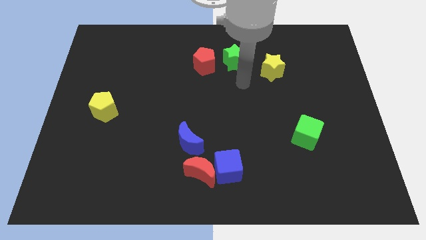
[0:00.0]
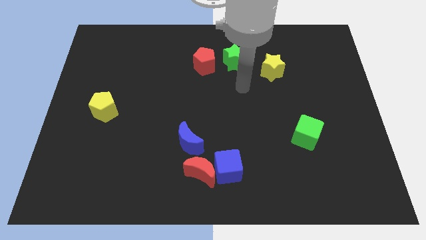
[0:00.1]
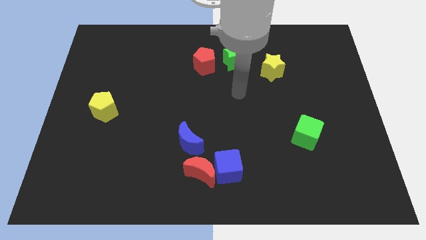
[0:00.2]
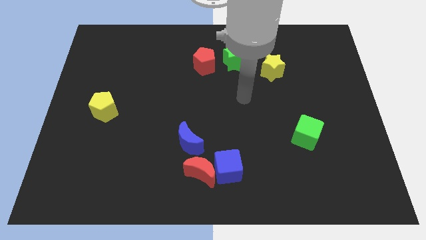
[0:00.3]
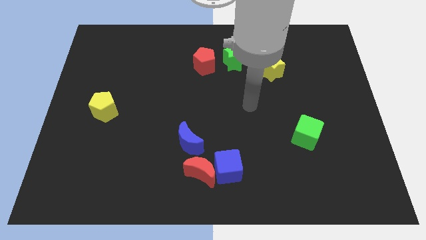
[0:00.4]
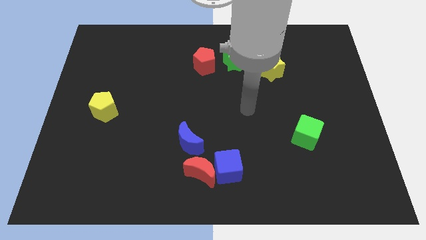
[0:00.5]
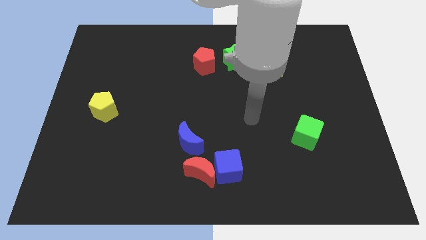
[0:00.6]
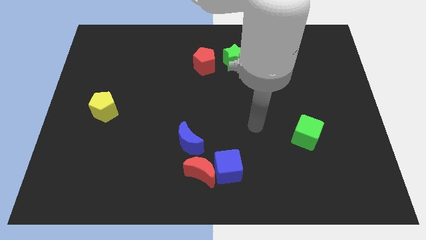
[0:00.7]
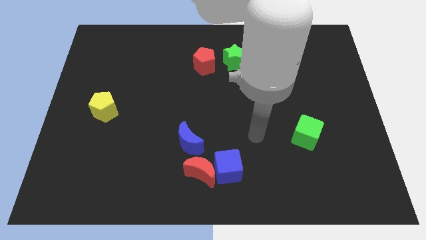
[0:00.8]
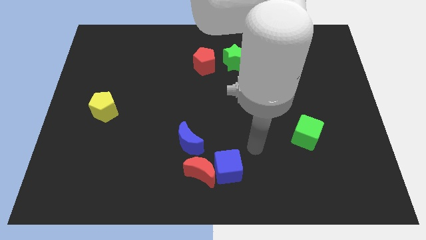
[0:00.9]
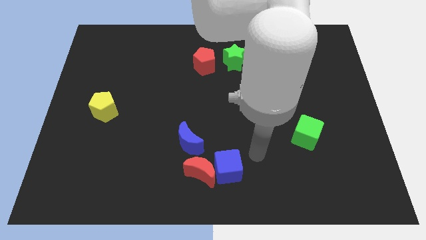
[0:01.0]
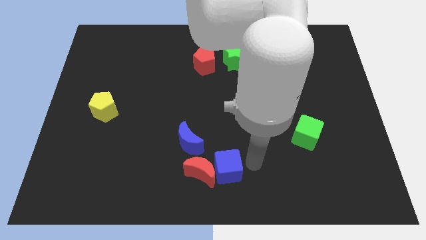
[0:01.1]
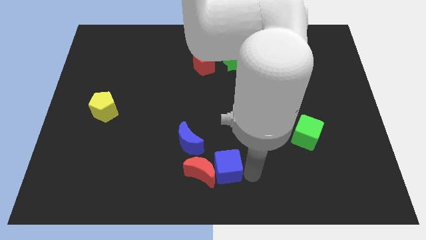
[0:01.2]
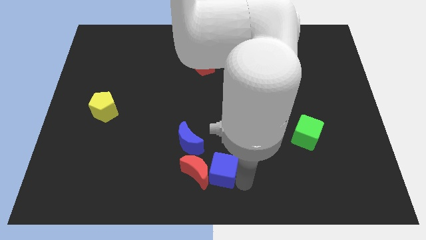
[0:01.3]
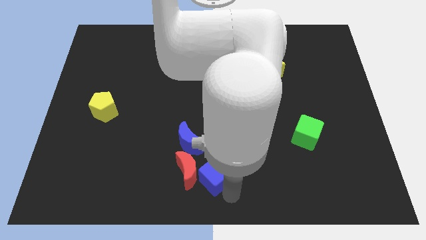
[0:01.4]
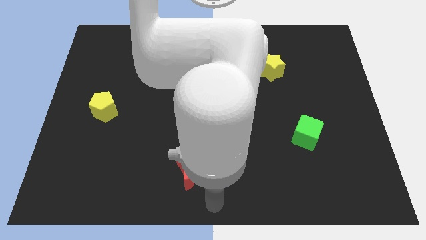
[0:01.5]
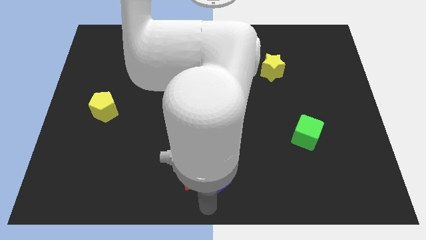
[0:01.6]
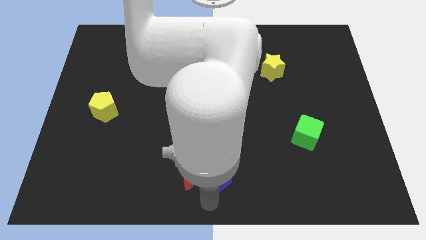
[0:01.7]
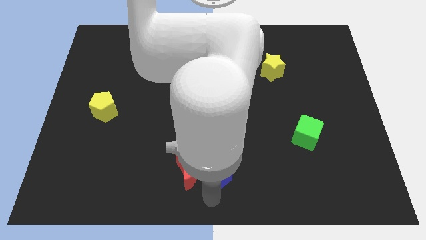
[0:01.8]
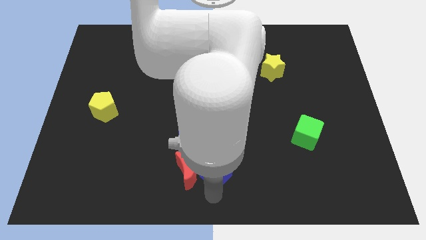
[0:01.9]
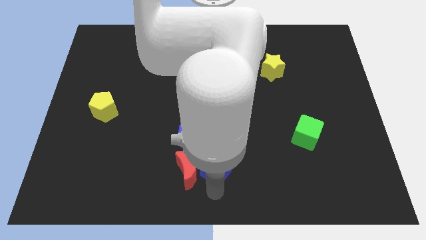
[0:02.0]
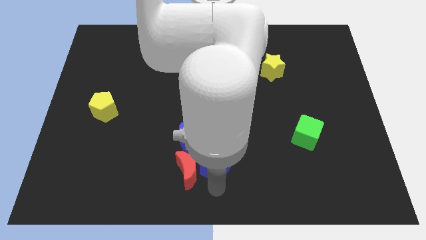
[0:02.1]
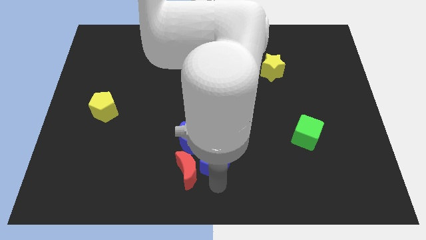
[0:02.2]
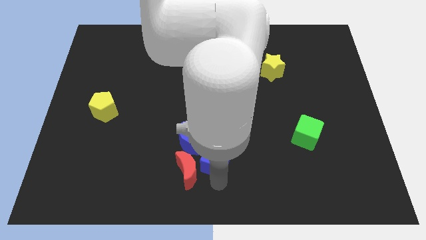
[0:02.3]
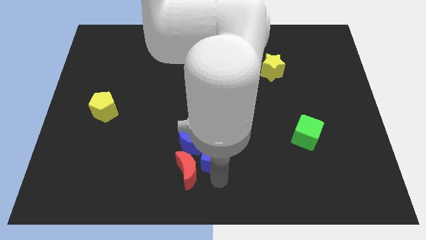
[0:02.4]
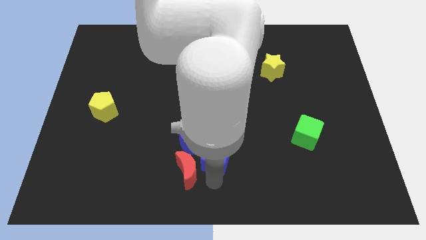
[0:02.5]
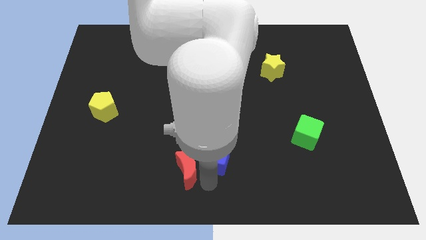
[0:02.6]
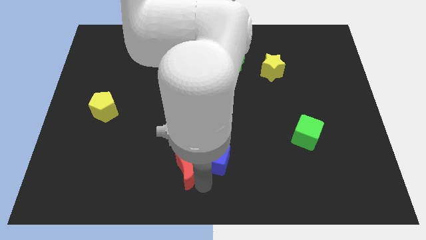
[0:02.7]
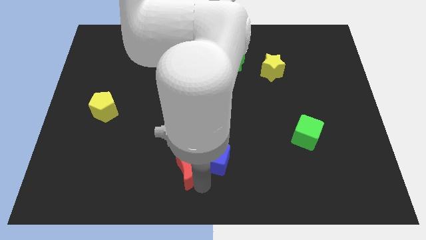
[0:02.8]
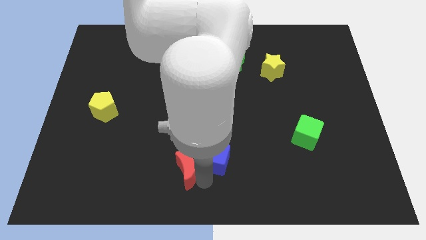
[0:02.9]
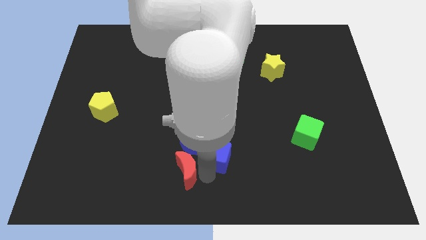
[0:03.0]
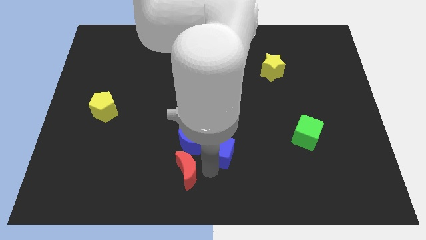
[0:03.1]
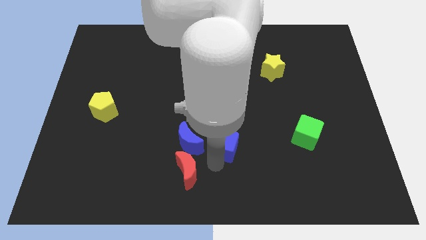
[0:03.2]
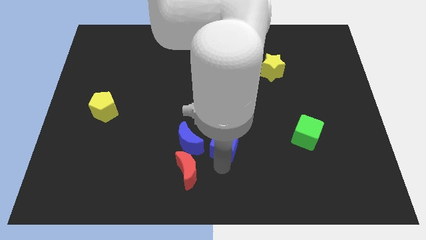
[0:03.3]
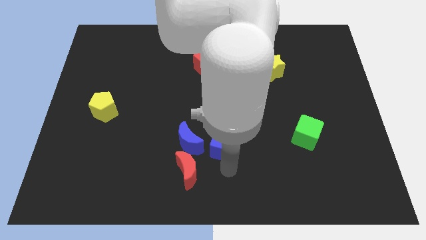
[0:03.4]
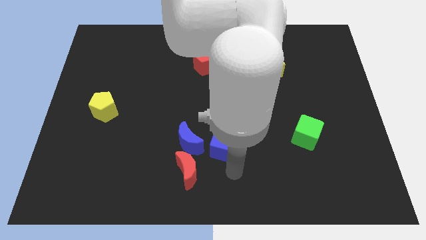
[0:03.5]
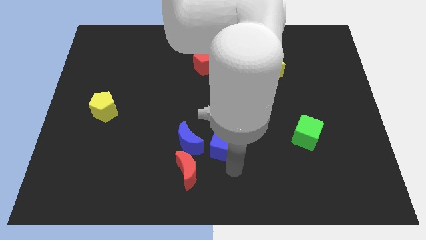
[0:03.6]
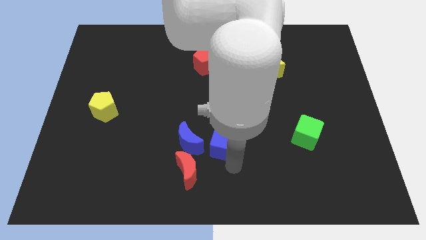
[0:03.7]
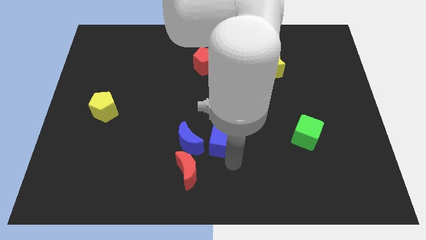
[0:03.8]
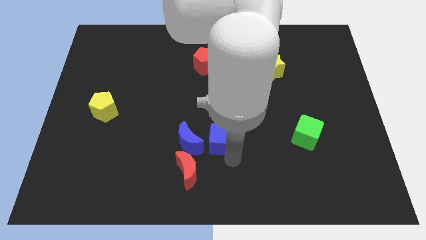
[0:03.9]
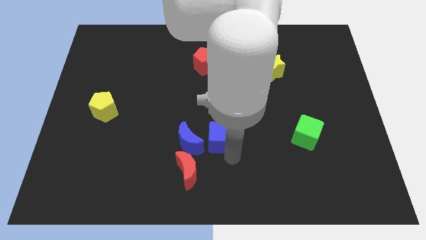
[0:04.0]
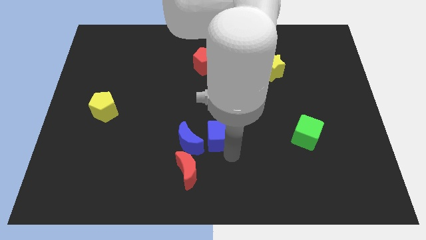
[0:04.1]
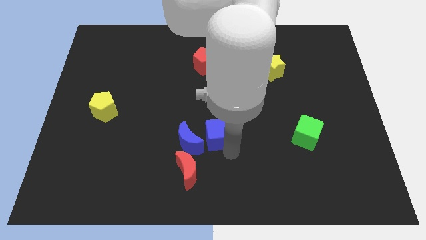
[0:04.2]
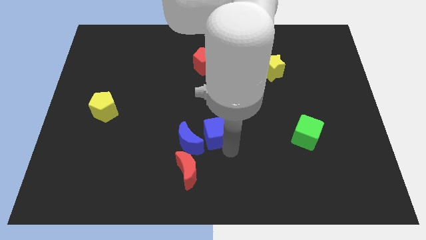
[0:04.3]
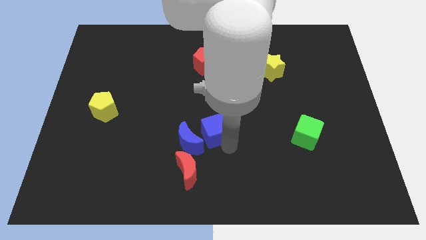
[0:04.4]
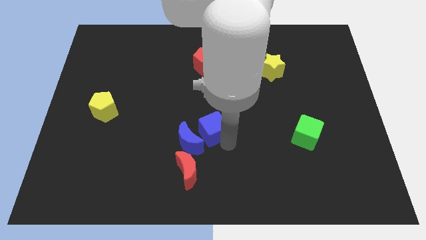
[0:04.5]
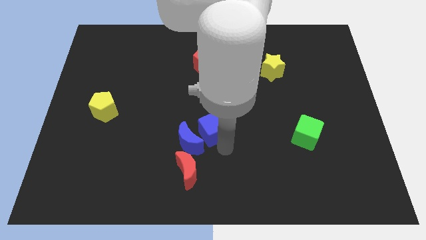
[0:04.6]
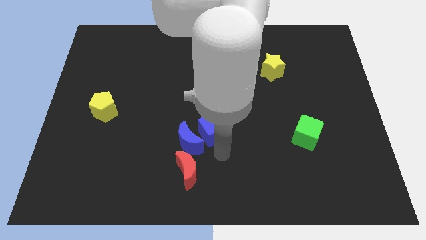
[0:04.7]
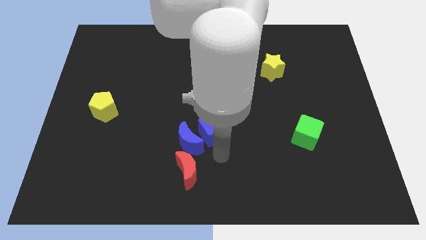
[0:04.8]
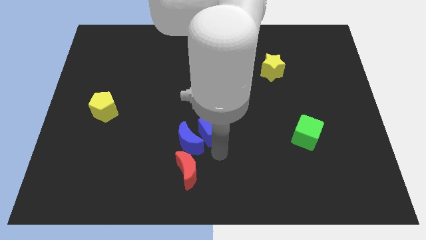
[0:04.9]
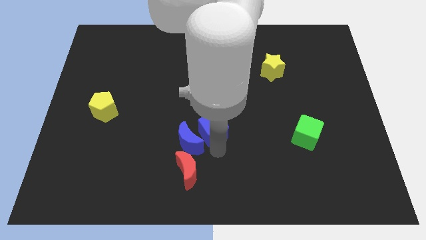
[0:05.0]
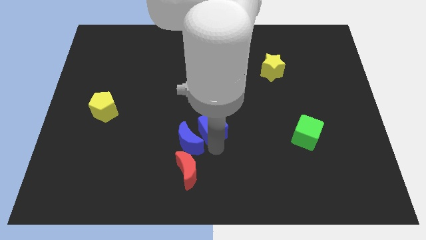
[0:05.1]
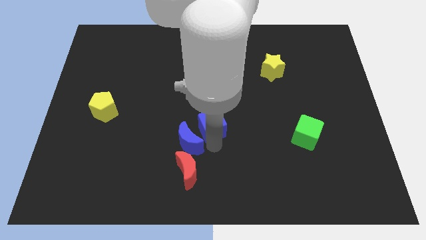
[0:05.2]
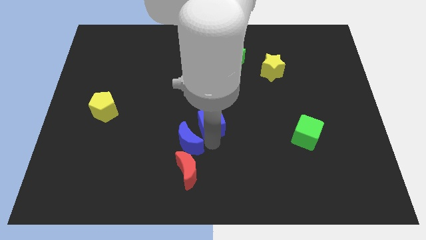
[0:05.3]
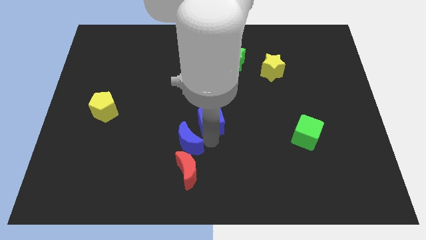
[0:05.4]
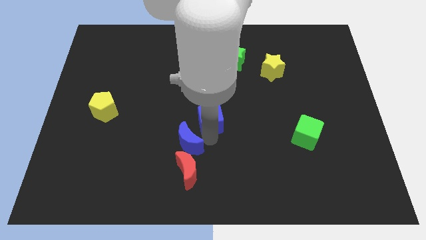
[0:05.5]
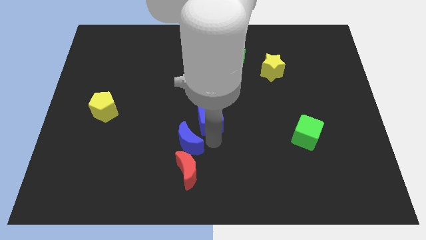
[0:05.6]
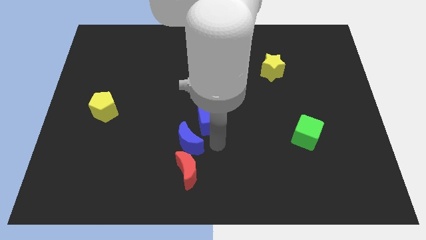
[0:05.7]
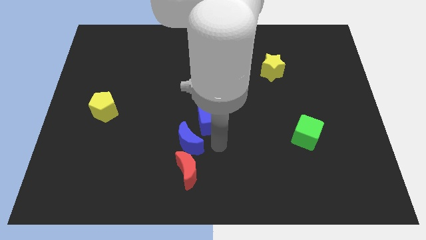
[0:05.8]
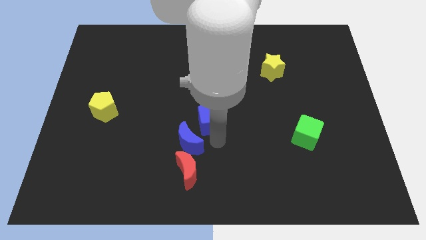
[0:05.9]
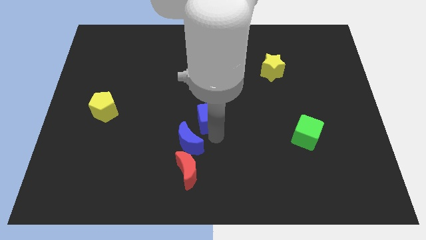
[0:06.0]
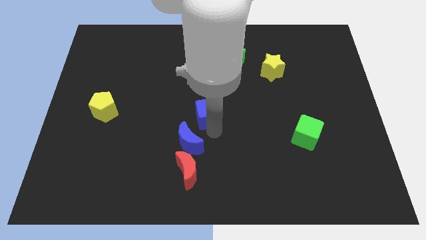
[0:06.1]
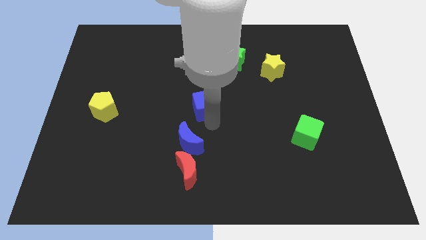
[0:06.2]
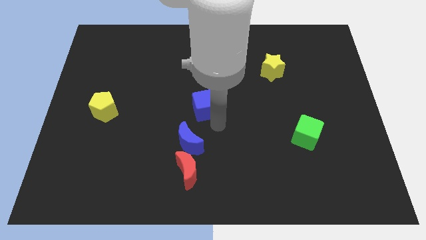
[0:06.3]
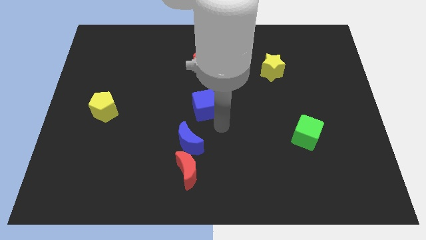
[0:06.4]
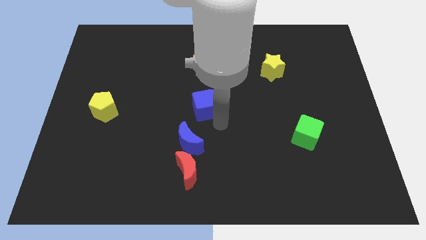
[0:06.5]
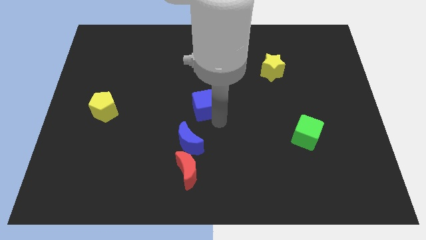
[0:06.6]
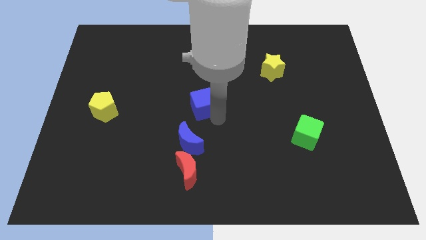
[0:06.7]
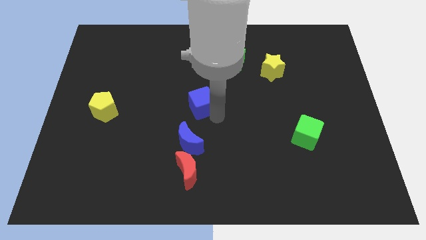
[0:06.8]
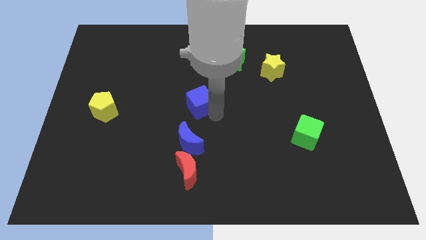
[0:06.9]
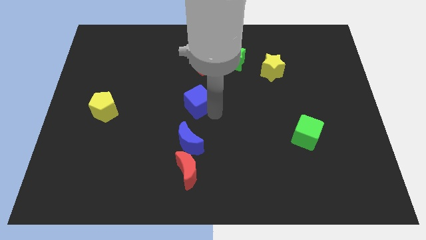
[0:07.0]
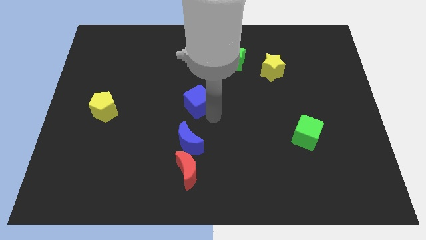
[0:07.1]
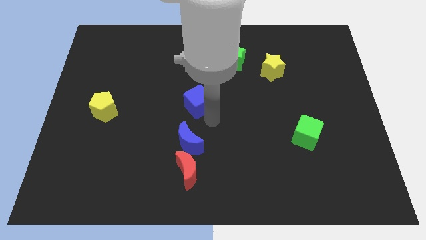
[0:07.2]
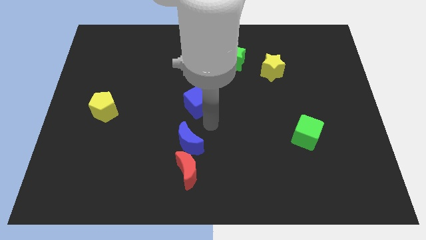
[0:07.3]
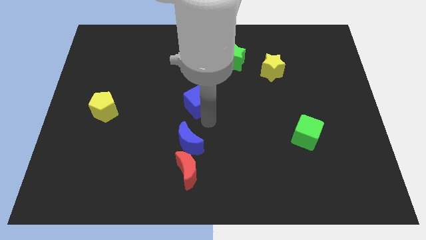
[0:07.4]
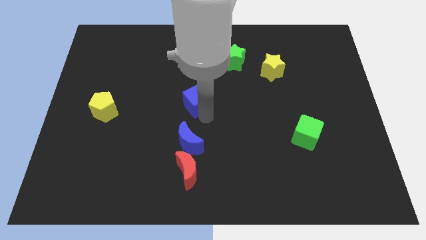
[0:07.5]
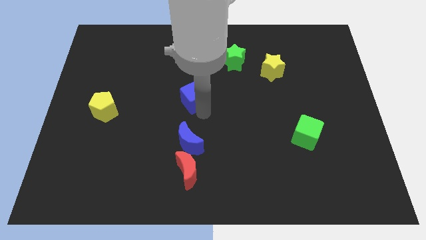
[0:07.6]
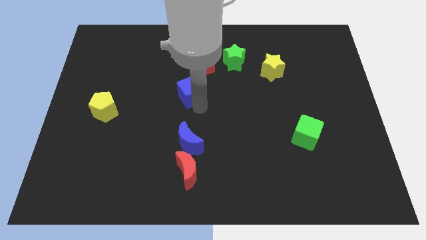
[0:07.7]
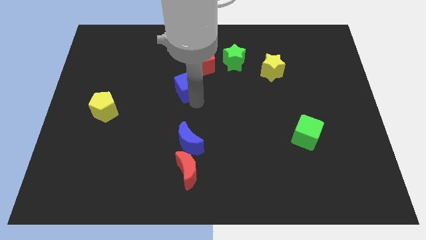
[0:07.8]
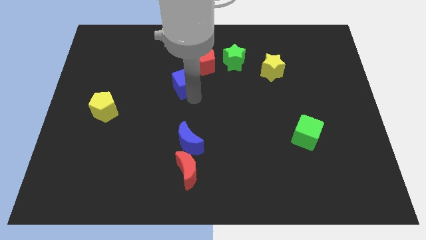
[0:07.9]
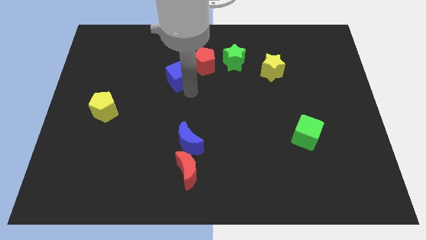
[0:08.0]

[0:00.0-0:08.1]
put the blue cube just left of the red pentagon
